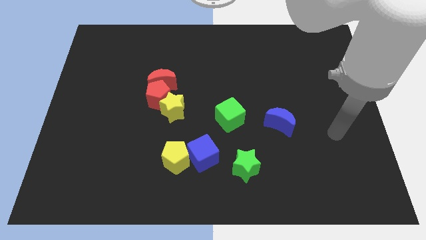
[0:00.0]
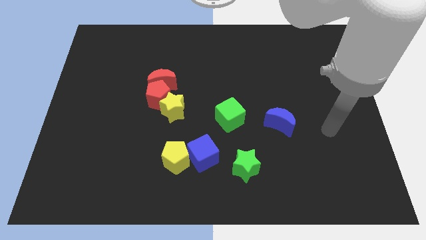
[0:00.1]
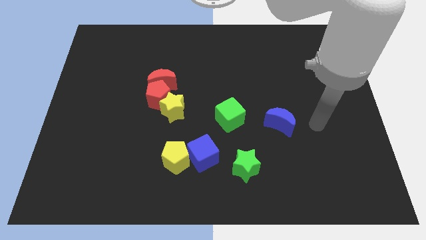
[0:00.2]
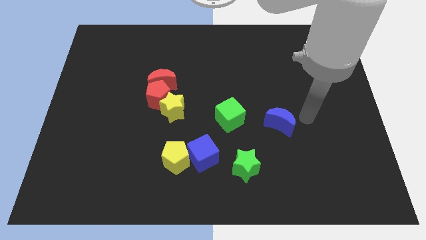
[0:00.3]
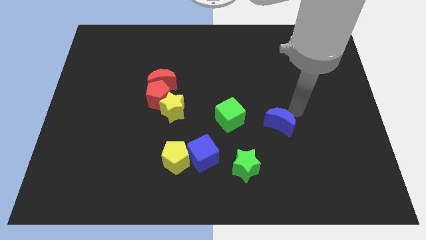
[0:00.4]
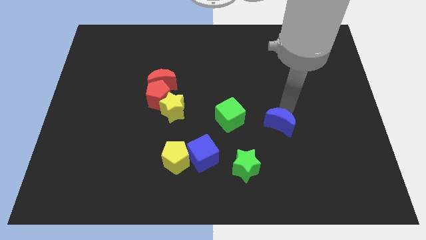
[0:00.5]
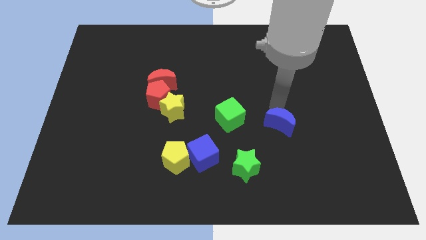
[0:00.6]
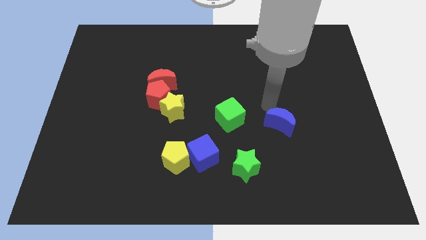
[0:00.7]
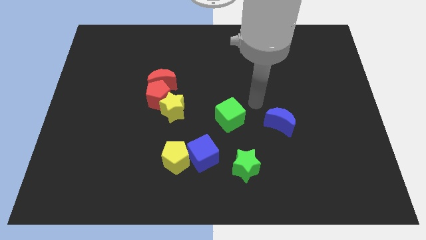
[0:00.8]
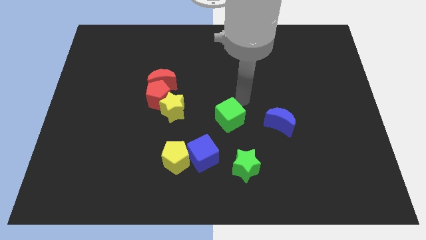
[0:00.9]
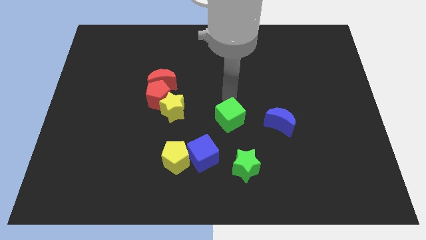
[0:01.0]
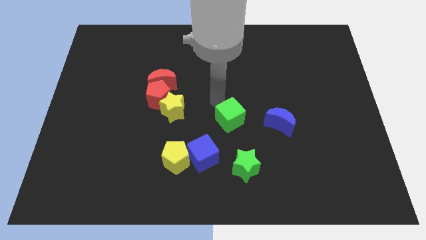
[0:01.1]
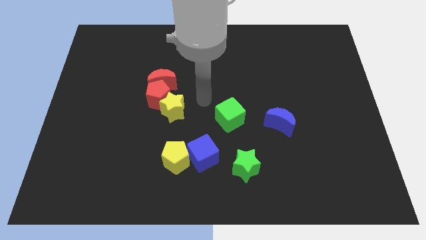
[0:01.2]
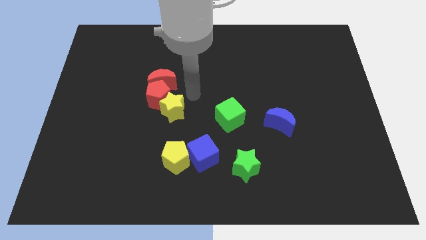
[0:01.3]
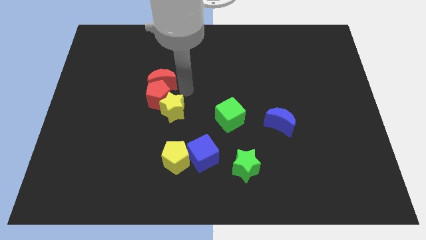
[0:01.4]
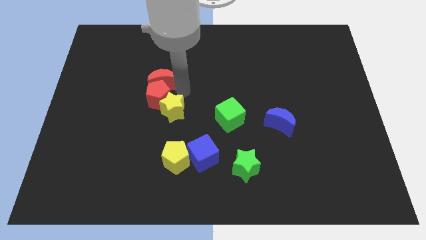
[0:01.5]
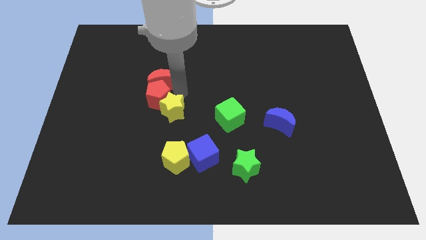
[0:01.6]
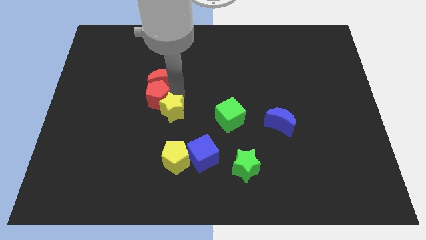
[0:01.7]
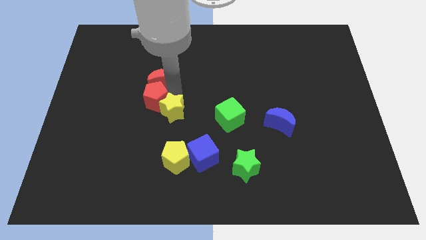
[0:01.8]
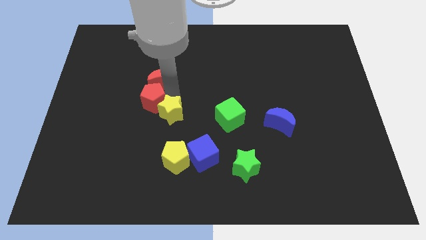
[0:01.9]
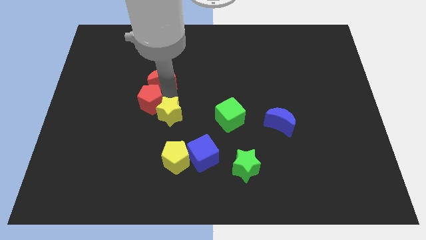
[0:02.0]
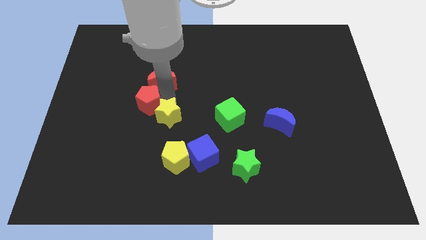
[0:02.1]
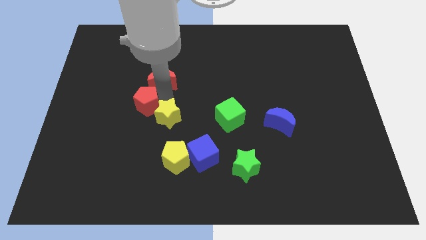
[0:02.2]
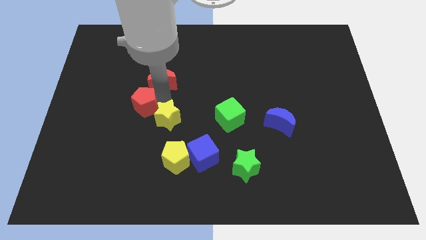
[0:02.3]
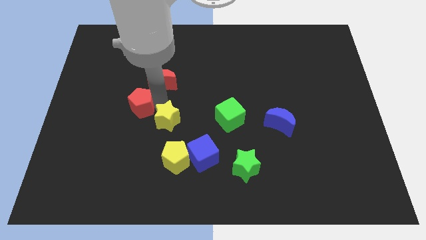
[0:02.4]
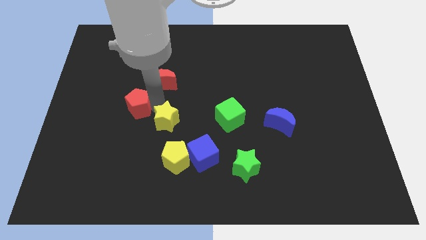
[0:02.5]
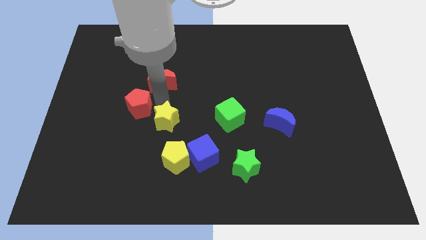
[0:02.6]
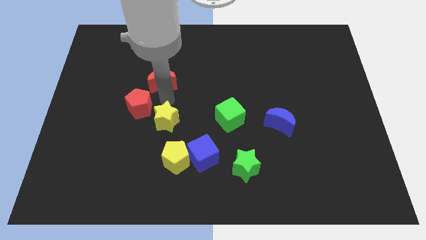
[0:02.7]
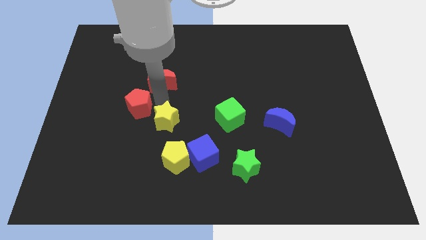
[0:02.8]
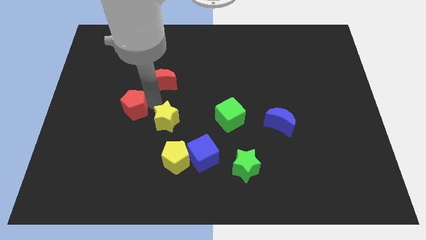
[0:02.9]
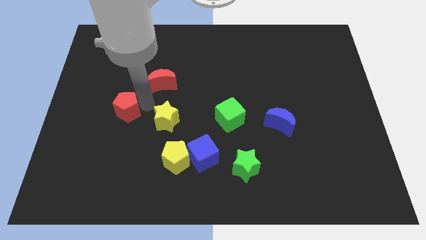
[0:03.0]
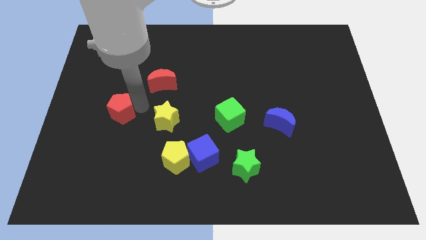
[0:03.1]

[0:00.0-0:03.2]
separate the red pentagon from the yellow star and red moon

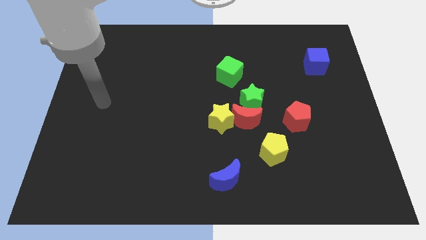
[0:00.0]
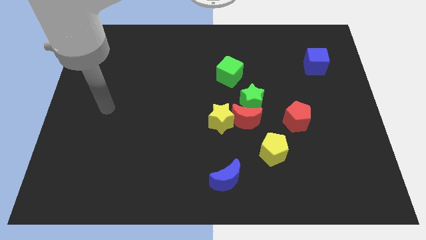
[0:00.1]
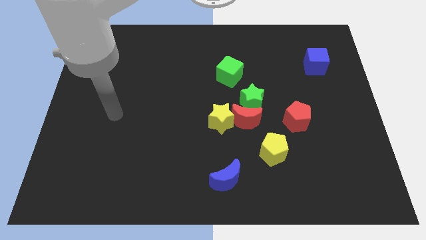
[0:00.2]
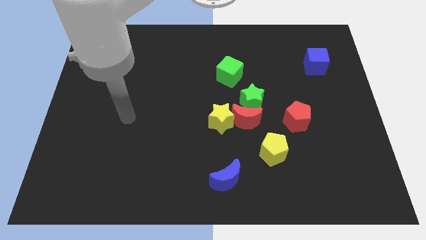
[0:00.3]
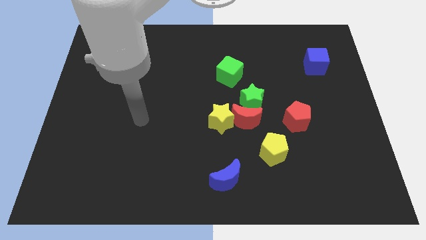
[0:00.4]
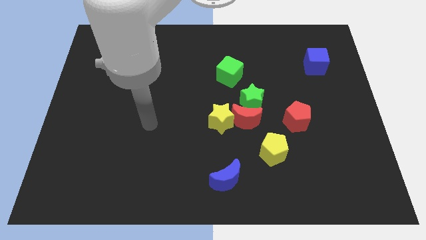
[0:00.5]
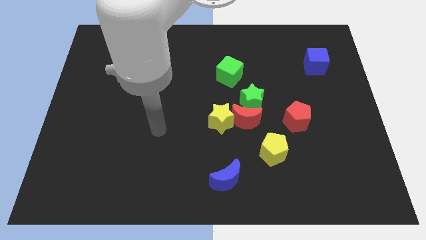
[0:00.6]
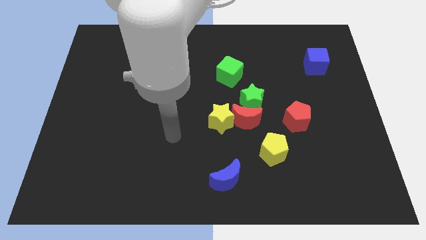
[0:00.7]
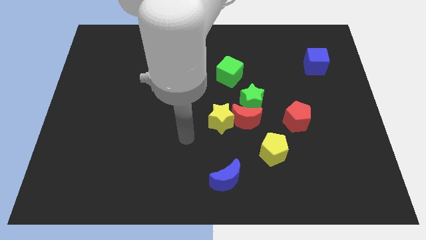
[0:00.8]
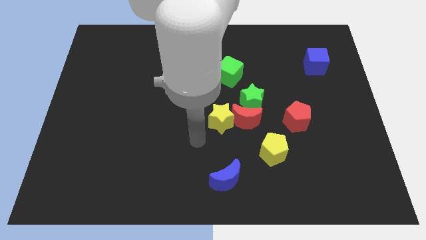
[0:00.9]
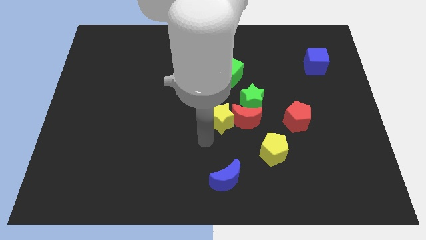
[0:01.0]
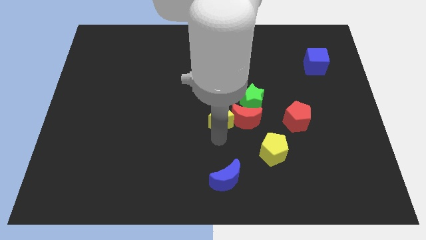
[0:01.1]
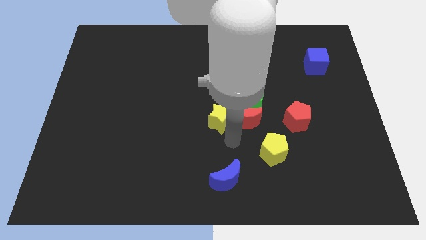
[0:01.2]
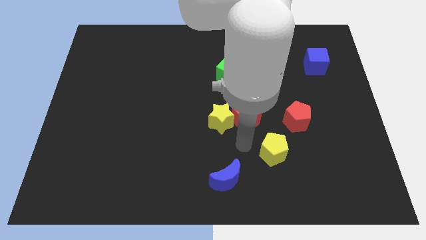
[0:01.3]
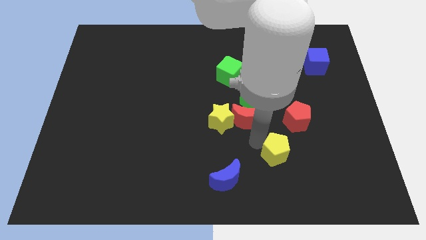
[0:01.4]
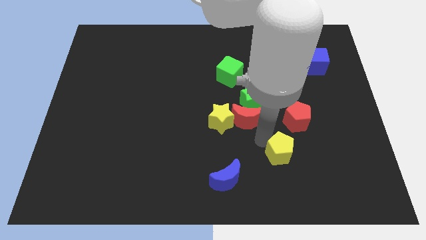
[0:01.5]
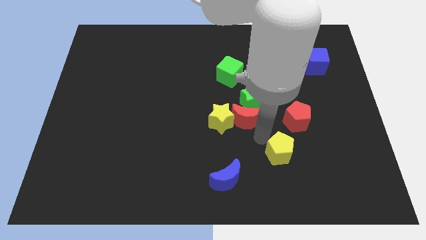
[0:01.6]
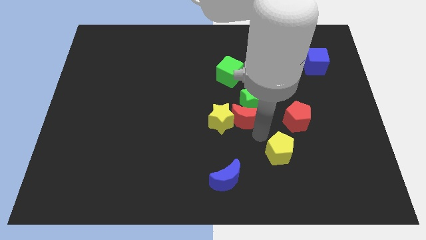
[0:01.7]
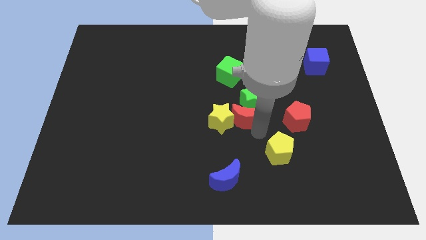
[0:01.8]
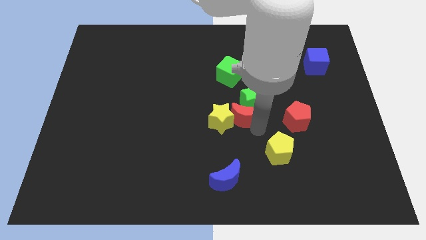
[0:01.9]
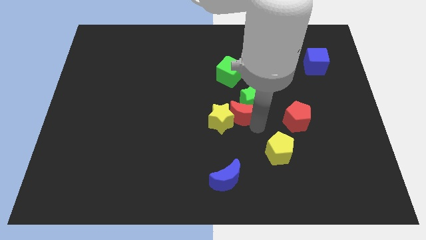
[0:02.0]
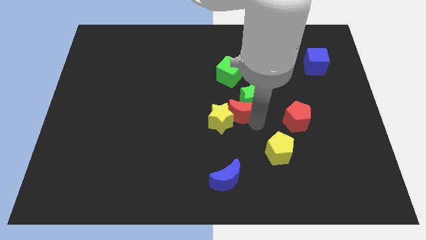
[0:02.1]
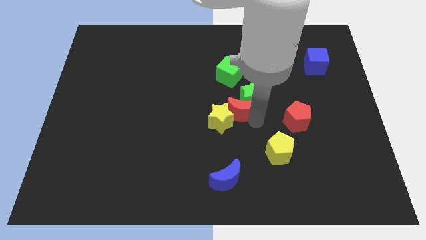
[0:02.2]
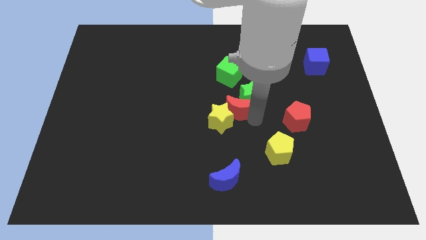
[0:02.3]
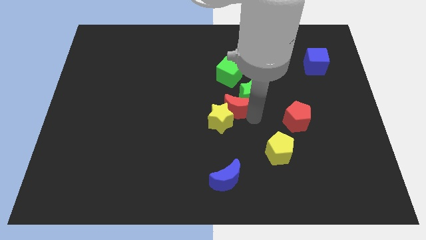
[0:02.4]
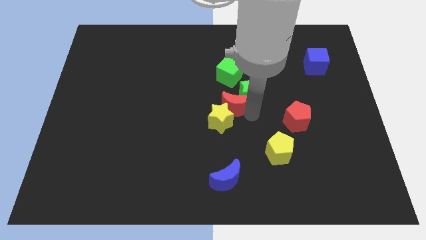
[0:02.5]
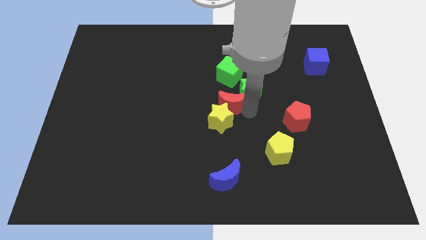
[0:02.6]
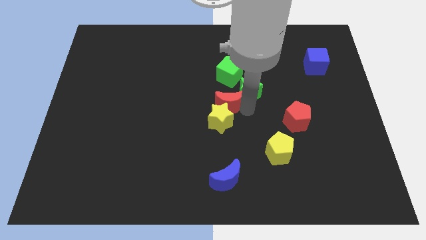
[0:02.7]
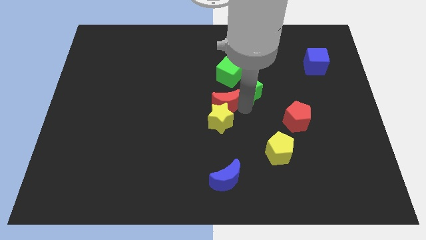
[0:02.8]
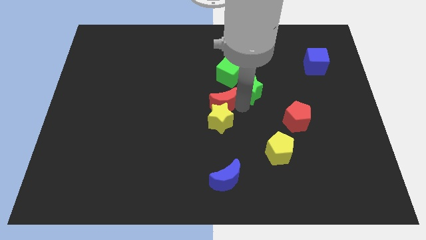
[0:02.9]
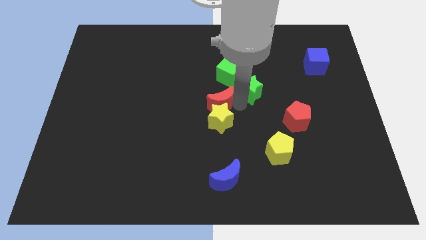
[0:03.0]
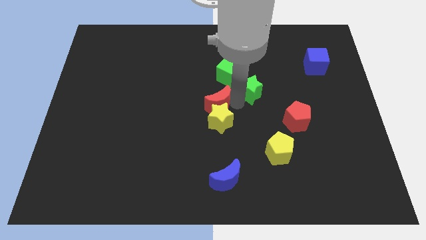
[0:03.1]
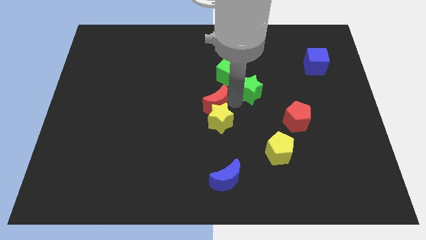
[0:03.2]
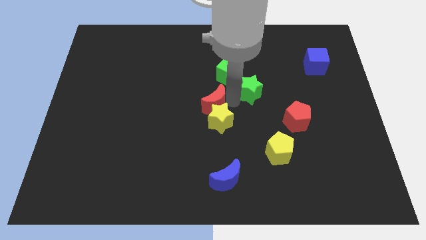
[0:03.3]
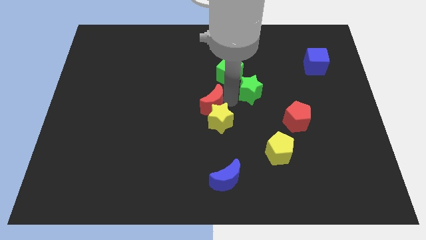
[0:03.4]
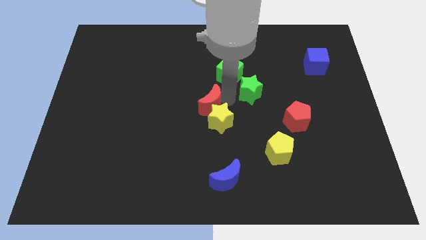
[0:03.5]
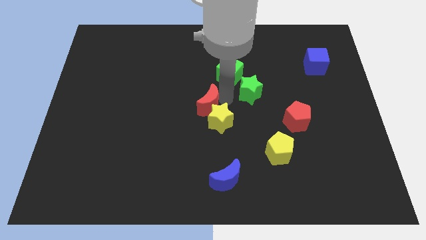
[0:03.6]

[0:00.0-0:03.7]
separate the red moon from the group of blocks

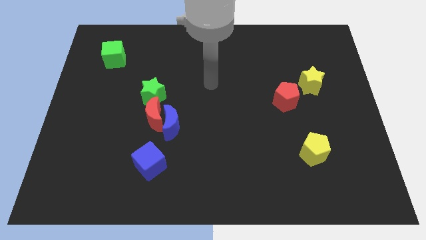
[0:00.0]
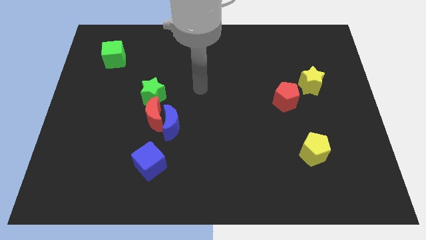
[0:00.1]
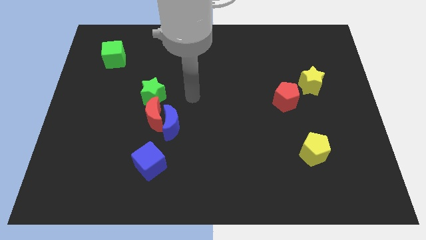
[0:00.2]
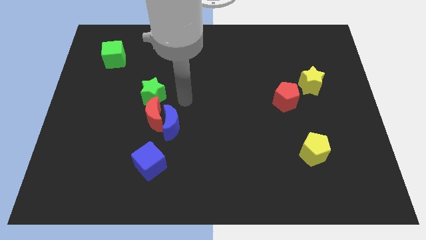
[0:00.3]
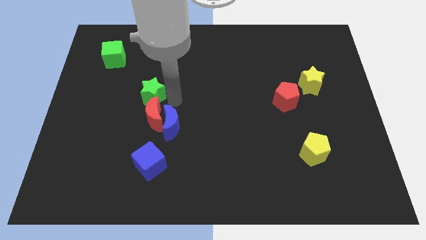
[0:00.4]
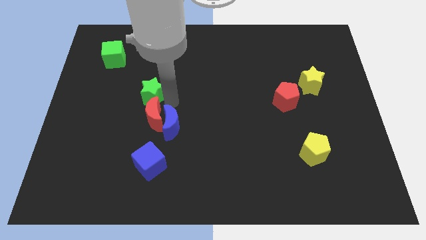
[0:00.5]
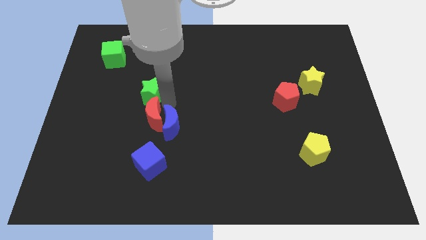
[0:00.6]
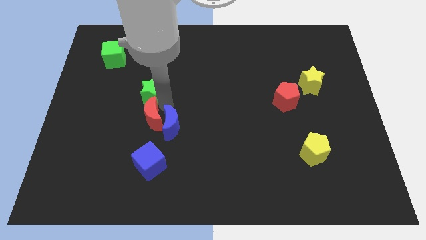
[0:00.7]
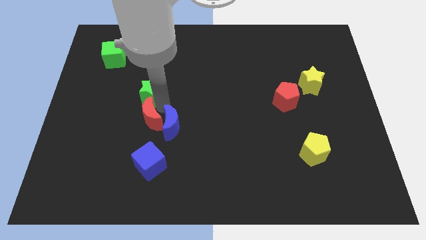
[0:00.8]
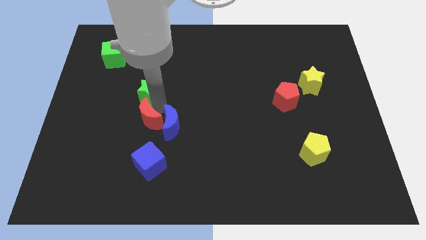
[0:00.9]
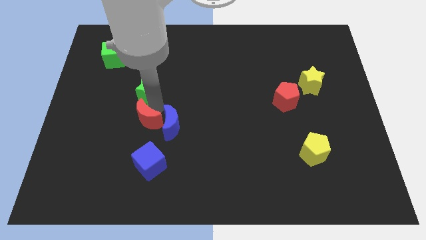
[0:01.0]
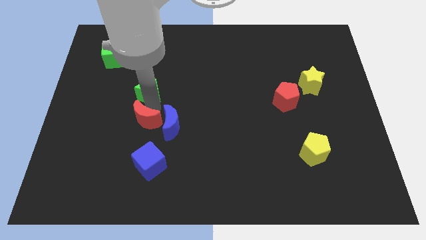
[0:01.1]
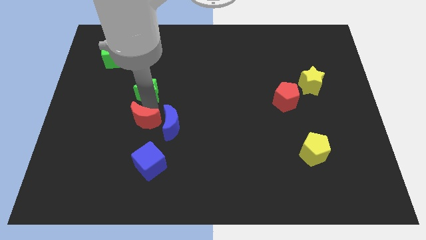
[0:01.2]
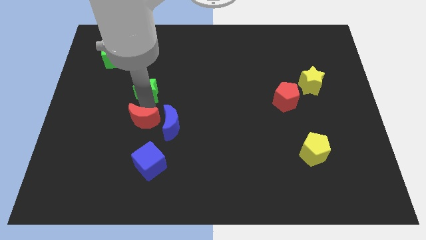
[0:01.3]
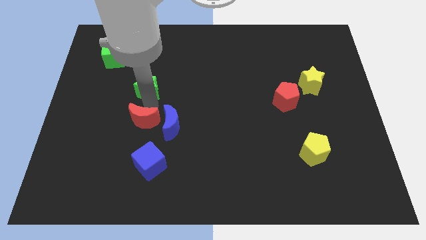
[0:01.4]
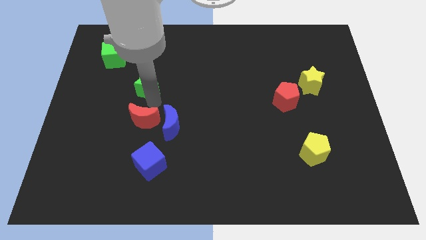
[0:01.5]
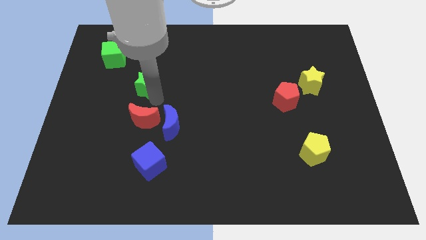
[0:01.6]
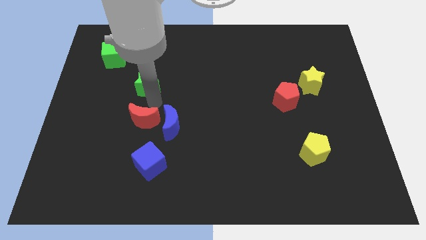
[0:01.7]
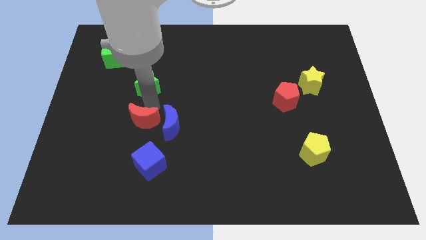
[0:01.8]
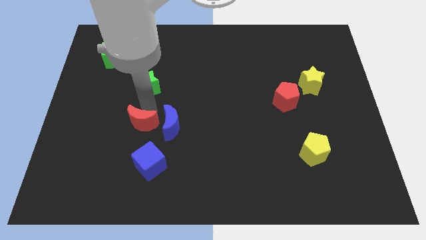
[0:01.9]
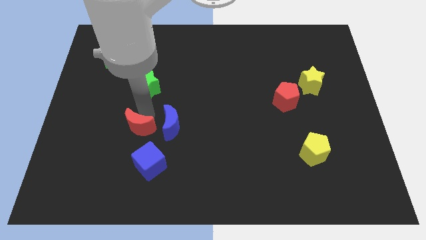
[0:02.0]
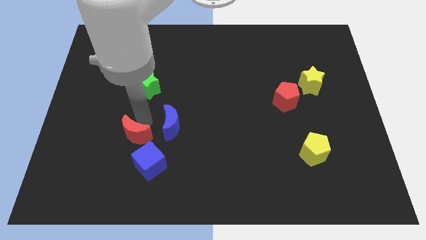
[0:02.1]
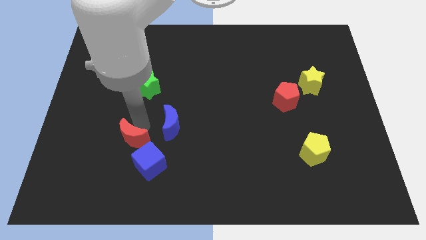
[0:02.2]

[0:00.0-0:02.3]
move the red moon away from the blue moon and green star
